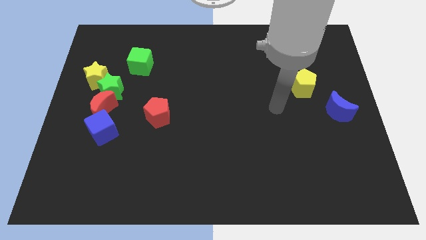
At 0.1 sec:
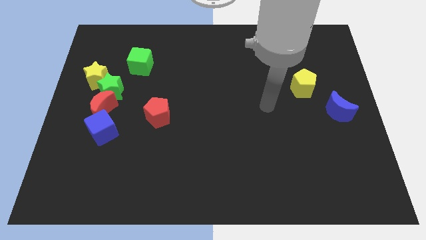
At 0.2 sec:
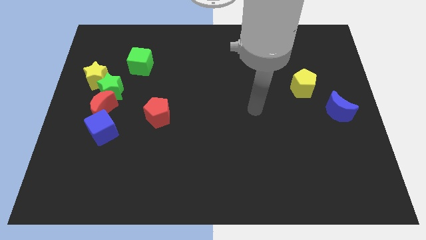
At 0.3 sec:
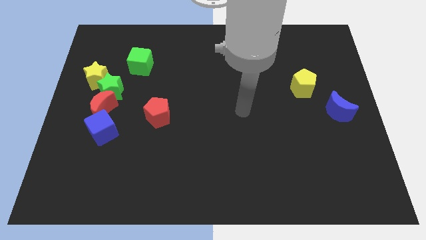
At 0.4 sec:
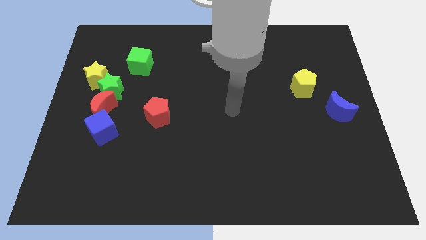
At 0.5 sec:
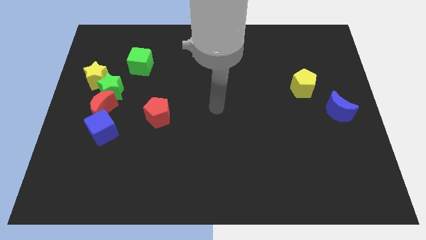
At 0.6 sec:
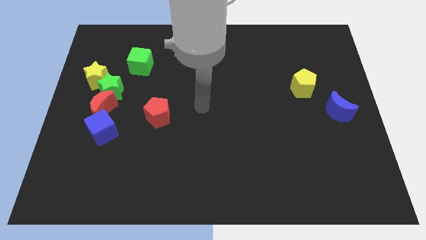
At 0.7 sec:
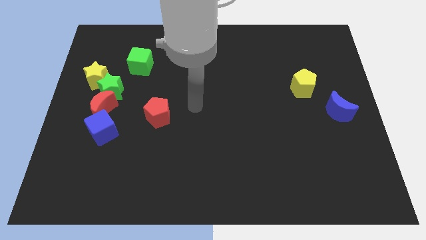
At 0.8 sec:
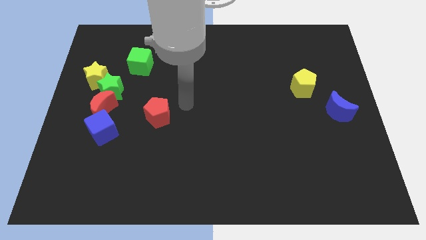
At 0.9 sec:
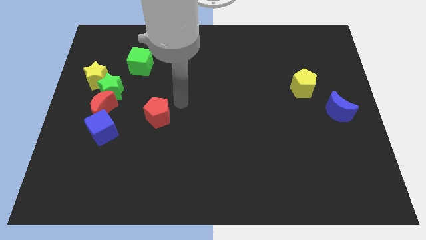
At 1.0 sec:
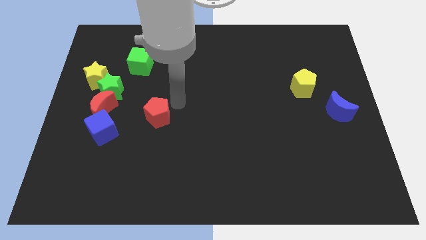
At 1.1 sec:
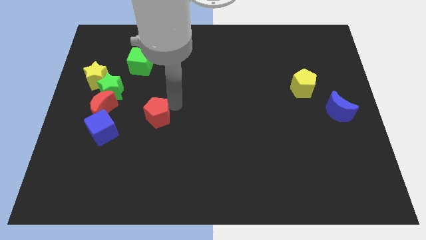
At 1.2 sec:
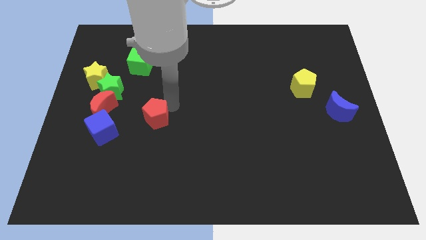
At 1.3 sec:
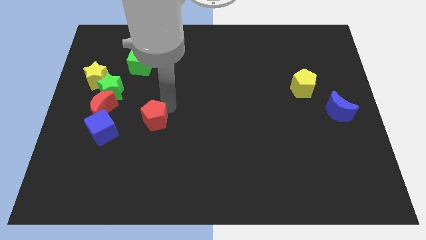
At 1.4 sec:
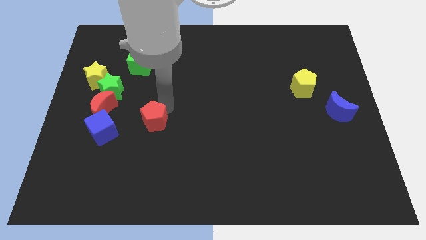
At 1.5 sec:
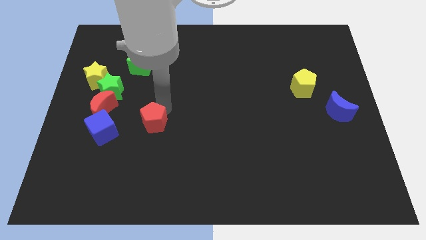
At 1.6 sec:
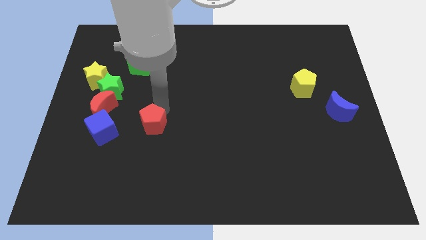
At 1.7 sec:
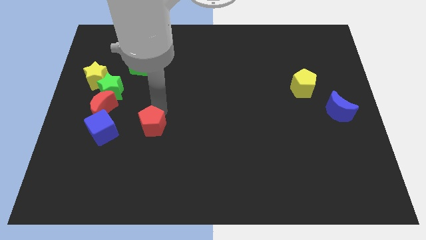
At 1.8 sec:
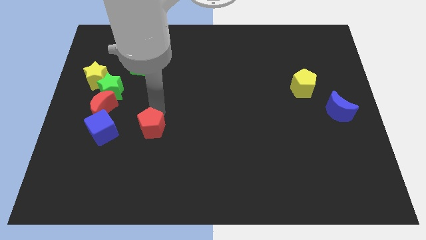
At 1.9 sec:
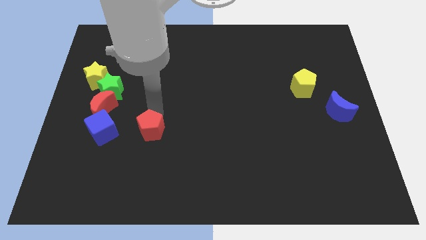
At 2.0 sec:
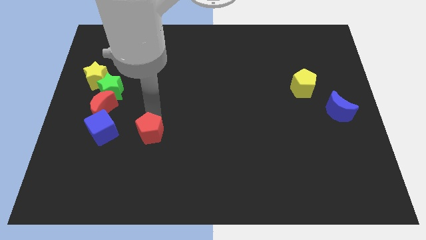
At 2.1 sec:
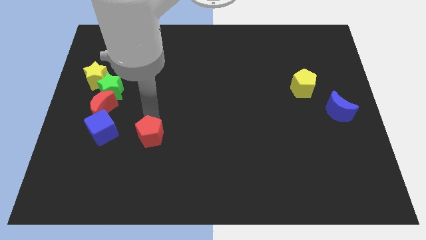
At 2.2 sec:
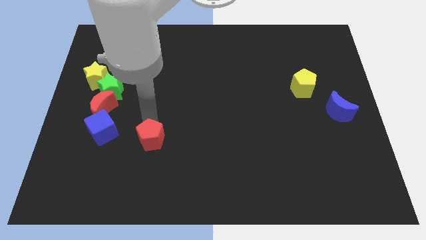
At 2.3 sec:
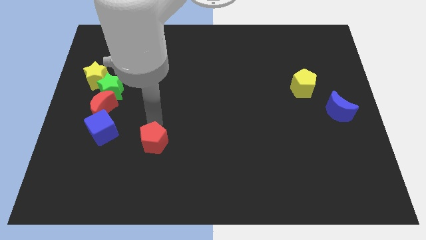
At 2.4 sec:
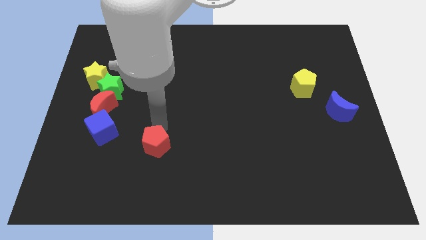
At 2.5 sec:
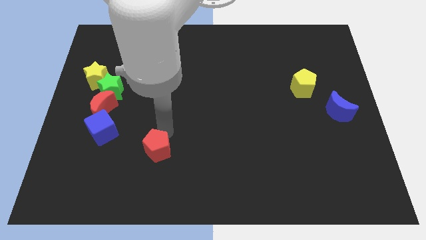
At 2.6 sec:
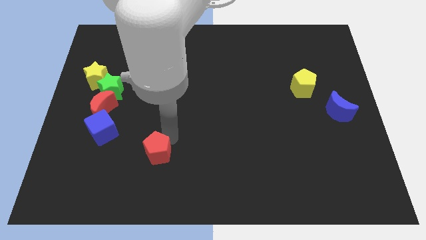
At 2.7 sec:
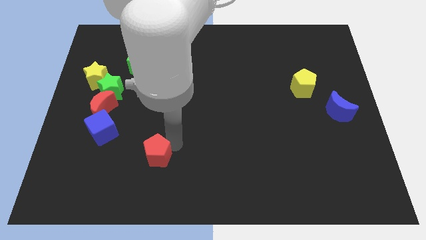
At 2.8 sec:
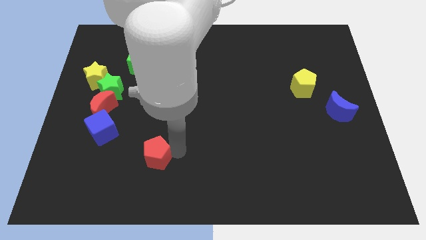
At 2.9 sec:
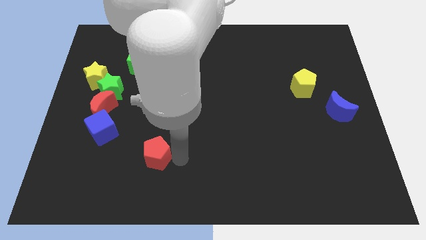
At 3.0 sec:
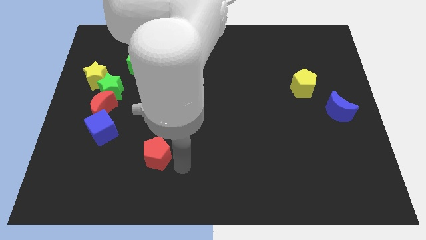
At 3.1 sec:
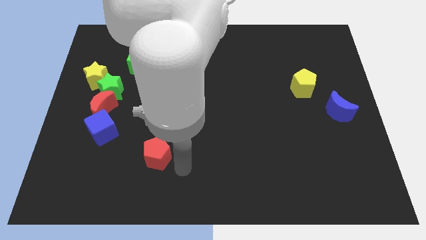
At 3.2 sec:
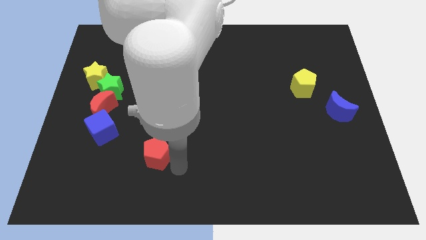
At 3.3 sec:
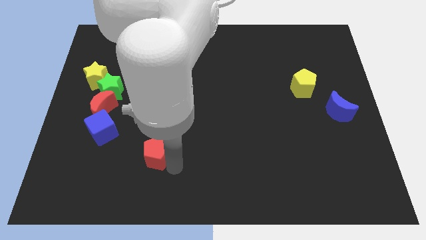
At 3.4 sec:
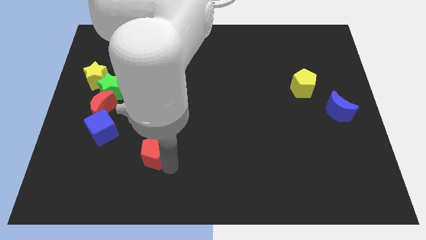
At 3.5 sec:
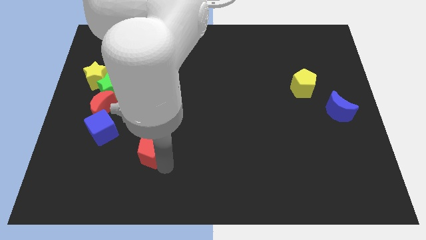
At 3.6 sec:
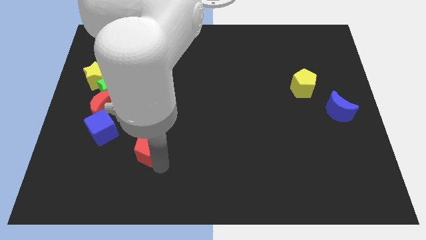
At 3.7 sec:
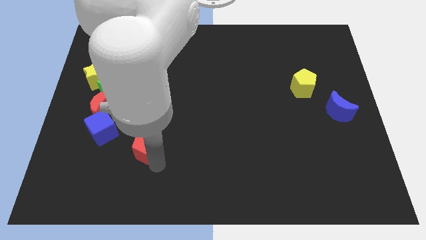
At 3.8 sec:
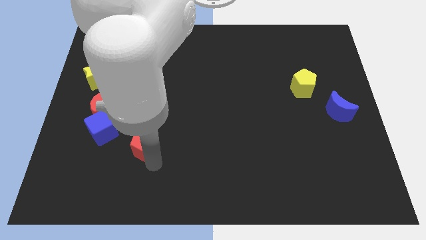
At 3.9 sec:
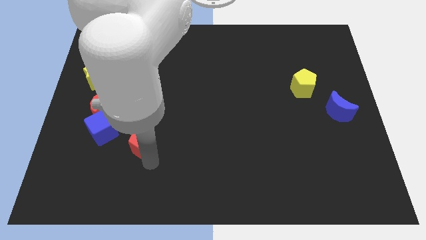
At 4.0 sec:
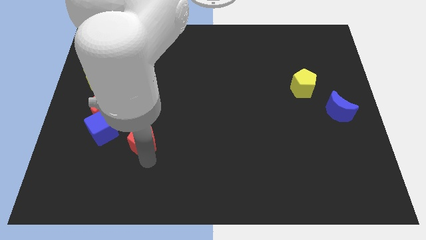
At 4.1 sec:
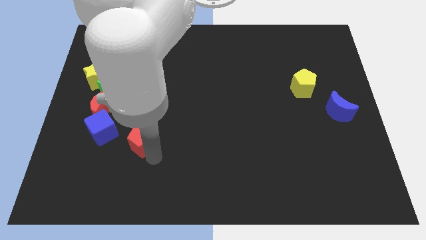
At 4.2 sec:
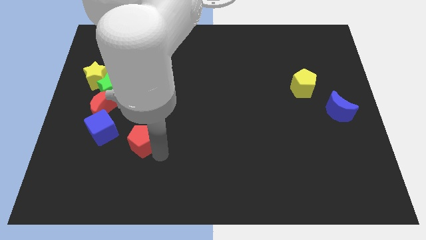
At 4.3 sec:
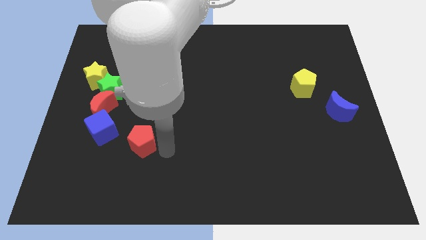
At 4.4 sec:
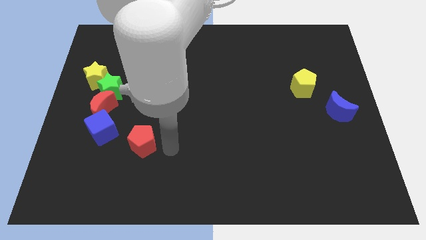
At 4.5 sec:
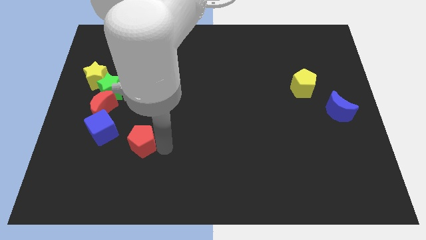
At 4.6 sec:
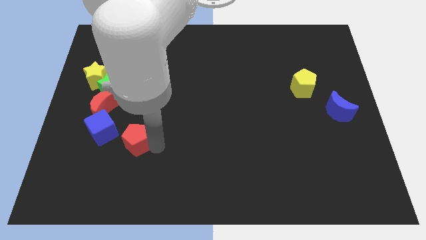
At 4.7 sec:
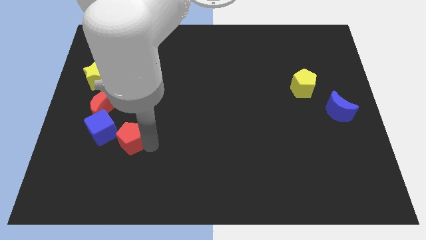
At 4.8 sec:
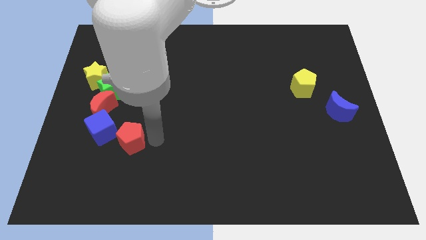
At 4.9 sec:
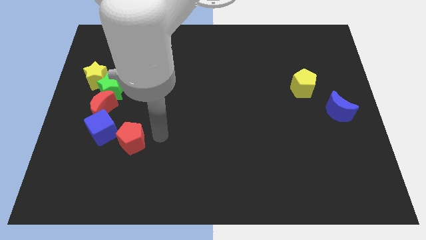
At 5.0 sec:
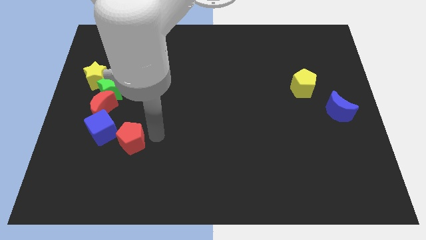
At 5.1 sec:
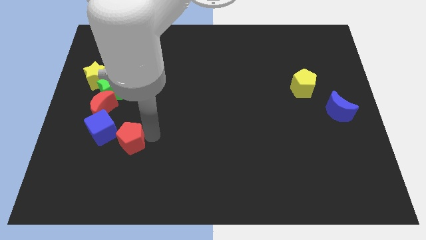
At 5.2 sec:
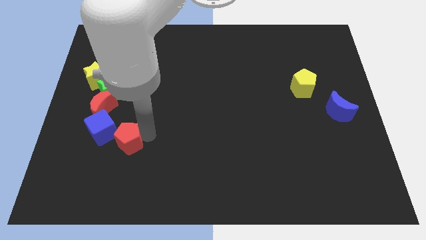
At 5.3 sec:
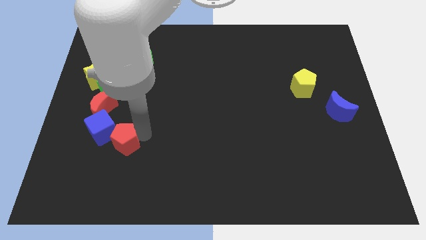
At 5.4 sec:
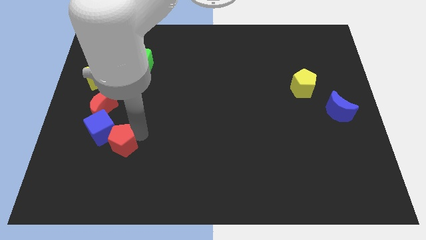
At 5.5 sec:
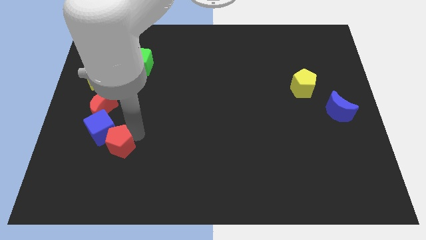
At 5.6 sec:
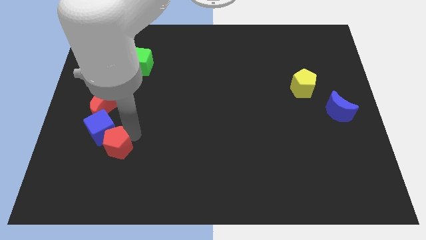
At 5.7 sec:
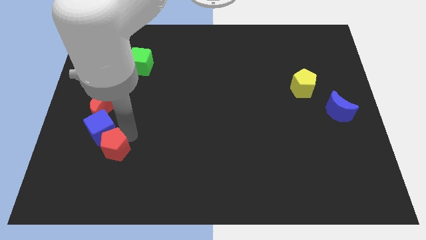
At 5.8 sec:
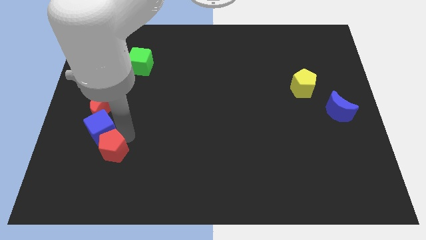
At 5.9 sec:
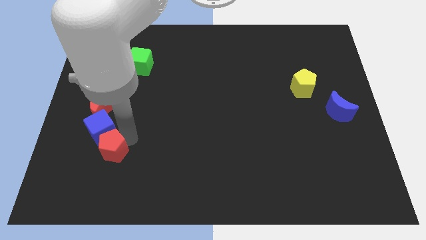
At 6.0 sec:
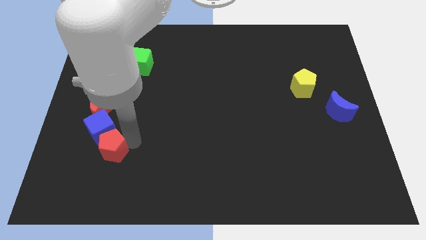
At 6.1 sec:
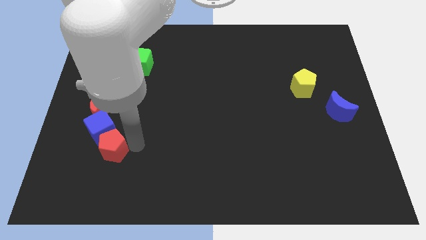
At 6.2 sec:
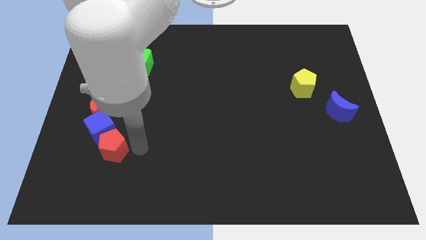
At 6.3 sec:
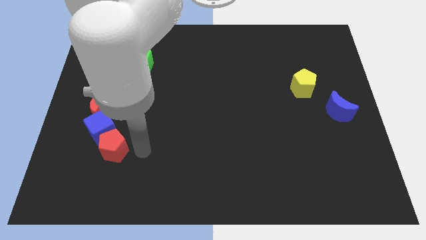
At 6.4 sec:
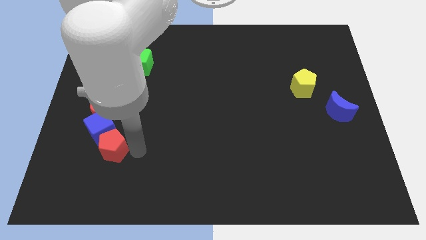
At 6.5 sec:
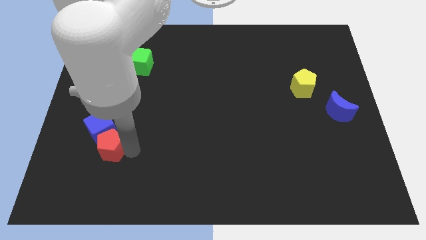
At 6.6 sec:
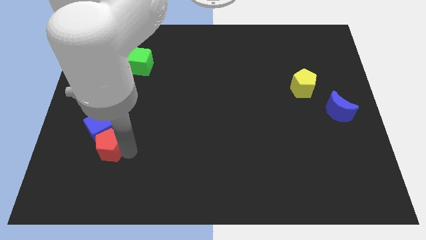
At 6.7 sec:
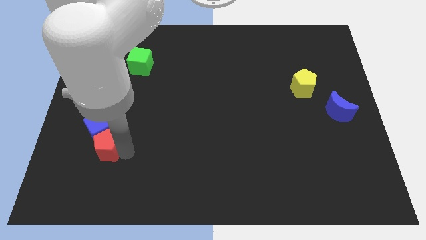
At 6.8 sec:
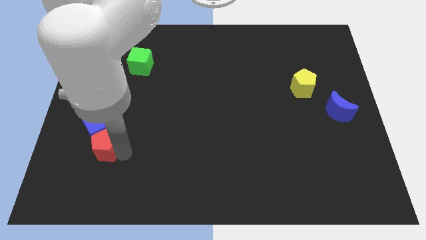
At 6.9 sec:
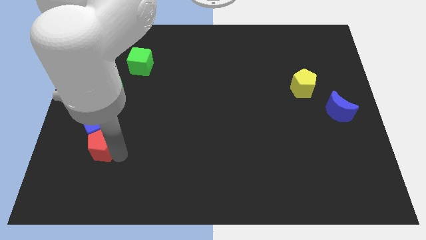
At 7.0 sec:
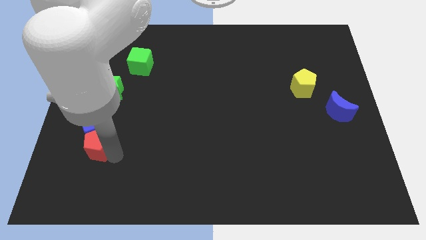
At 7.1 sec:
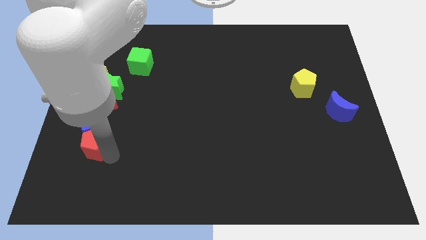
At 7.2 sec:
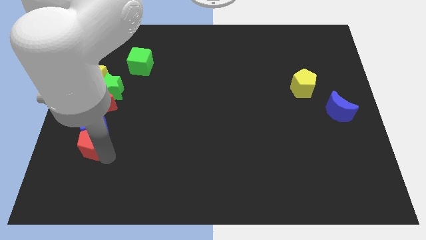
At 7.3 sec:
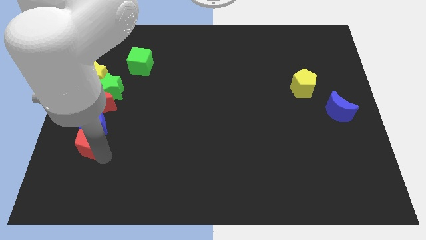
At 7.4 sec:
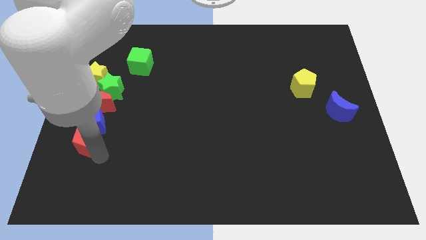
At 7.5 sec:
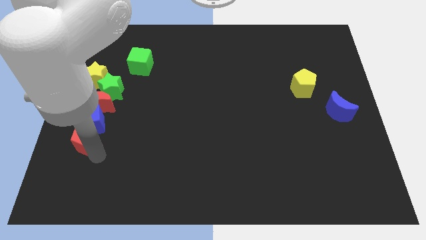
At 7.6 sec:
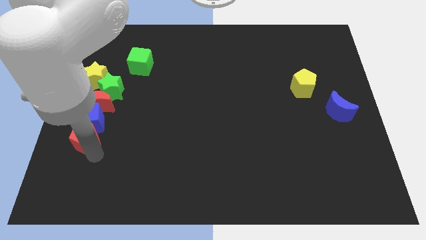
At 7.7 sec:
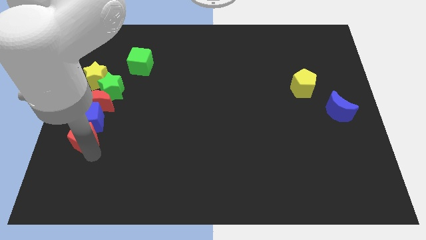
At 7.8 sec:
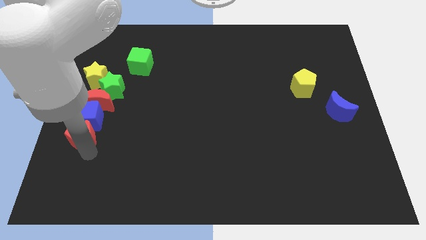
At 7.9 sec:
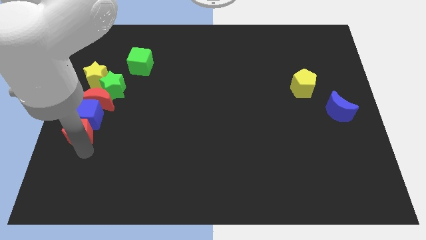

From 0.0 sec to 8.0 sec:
slide the red pentagon to the center left
